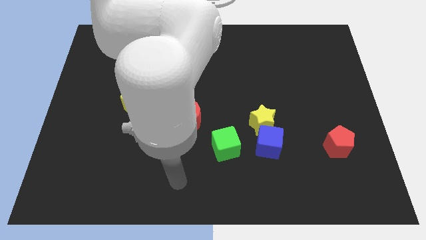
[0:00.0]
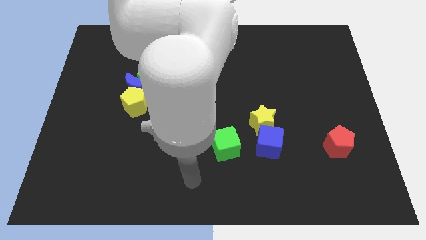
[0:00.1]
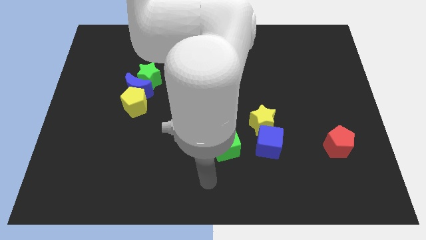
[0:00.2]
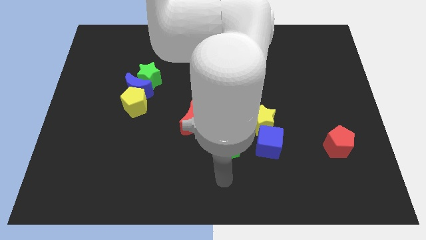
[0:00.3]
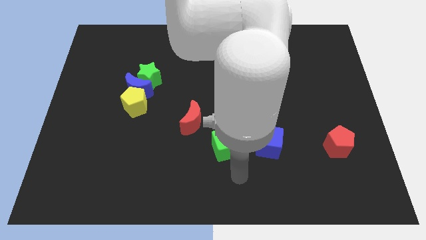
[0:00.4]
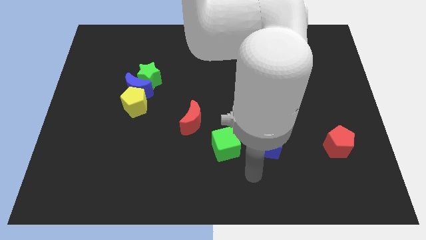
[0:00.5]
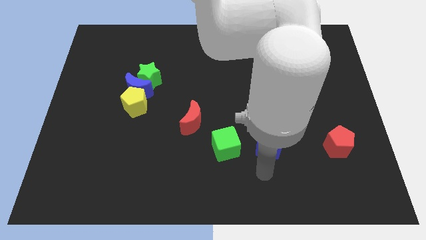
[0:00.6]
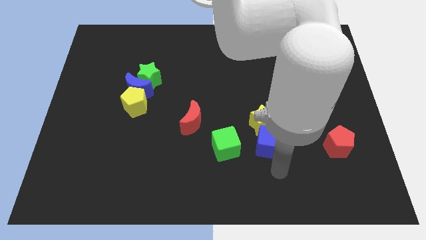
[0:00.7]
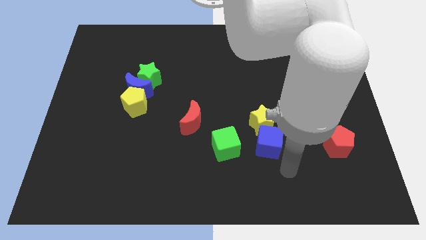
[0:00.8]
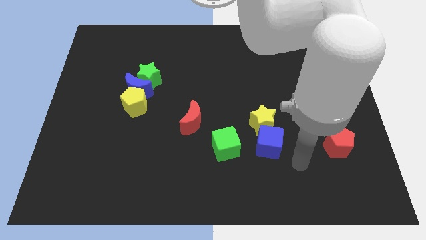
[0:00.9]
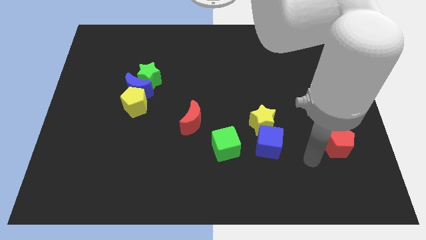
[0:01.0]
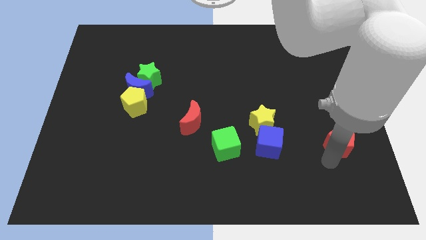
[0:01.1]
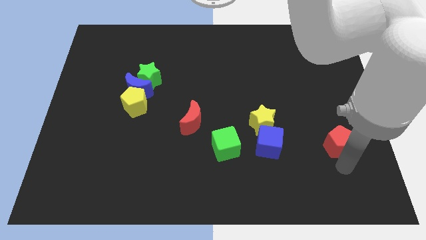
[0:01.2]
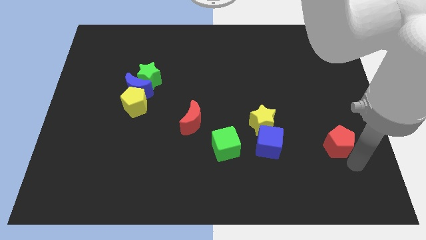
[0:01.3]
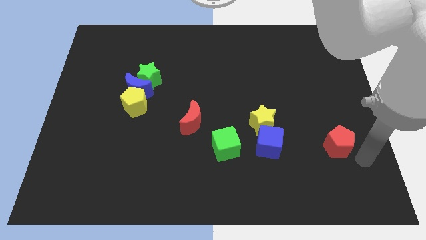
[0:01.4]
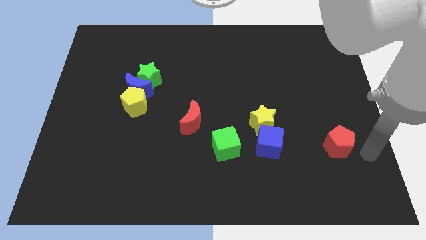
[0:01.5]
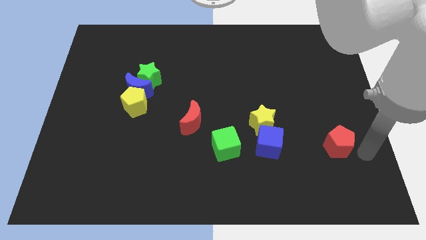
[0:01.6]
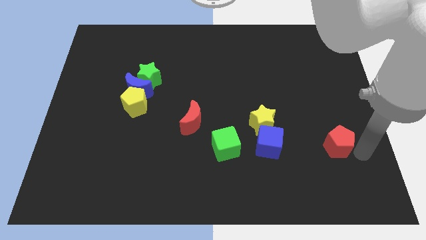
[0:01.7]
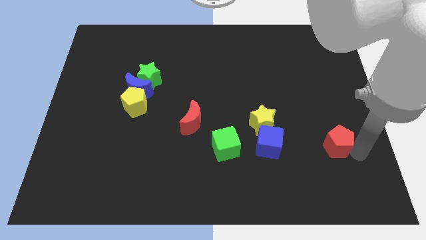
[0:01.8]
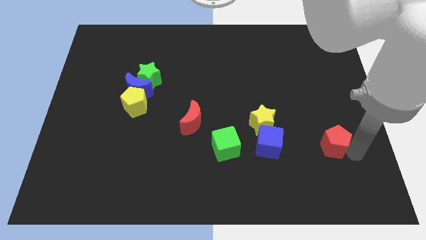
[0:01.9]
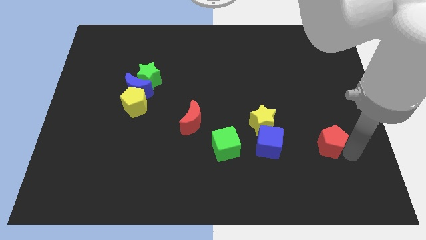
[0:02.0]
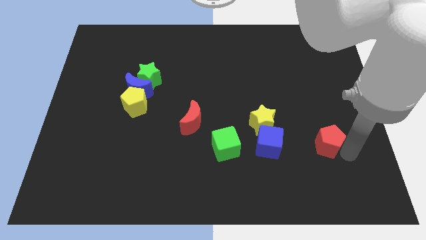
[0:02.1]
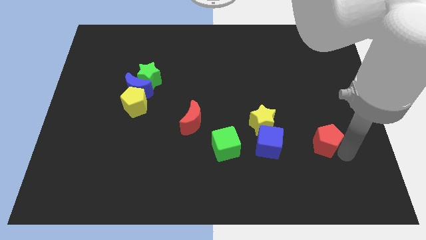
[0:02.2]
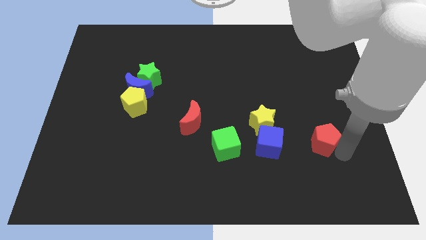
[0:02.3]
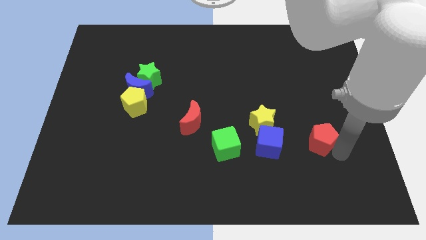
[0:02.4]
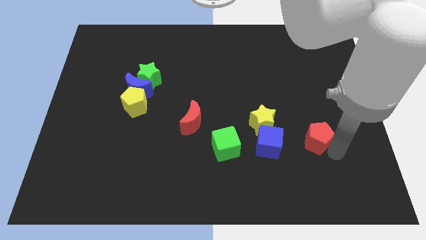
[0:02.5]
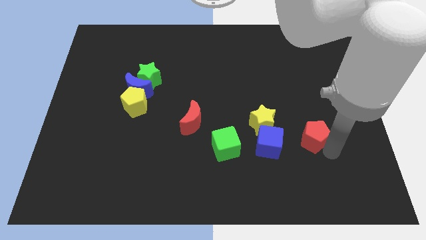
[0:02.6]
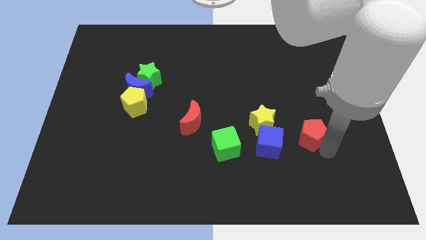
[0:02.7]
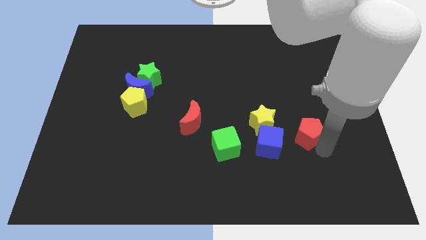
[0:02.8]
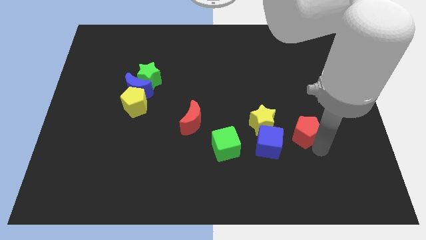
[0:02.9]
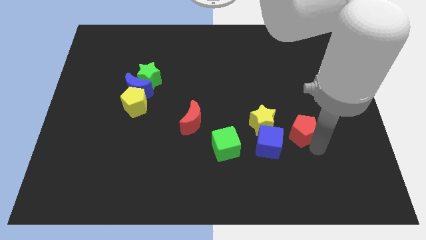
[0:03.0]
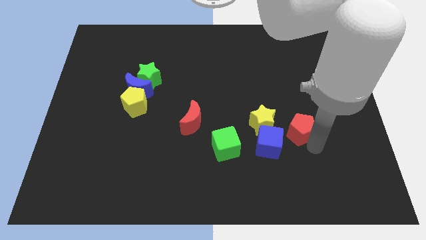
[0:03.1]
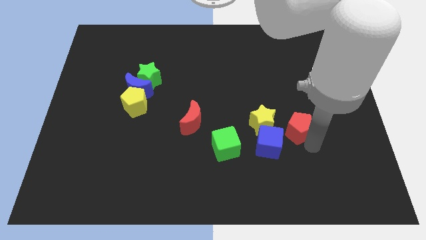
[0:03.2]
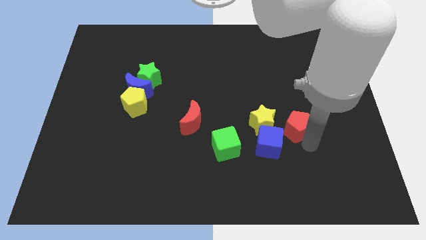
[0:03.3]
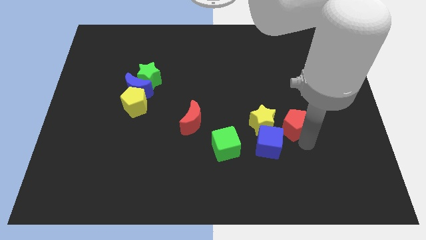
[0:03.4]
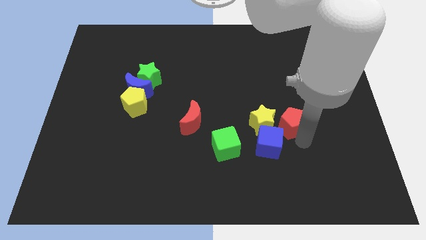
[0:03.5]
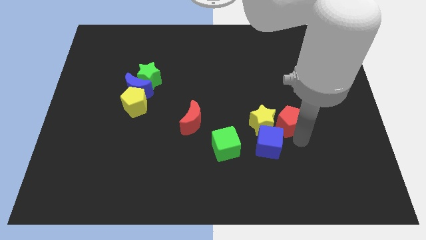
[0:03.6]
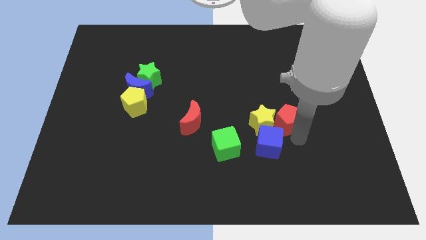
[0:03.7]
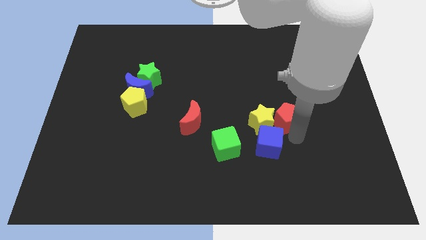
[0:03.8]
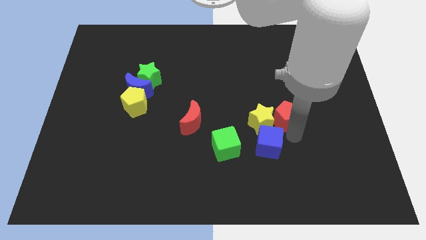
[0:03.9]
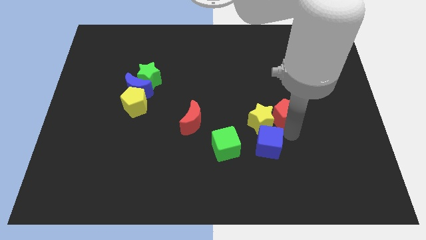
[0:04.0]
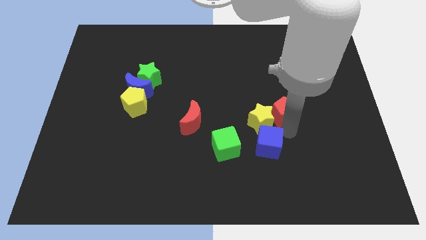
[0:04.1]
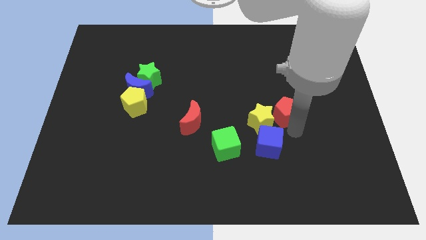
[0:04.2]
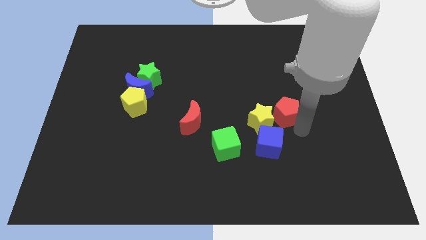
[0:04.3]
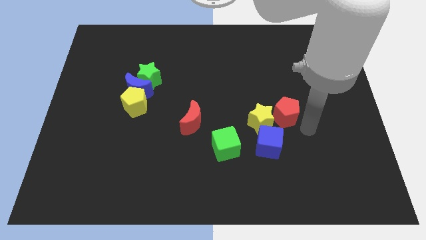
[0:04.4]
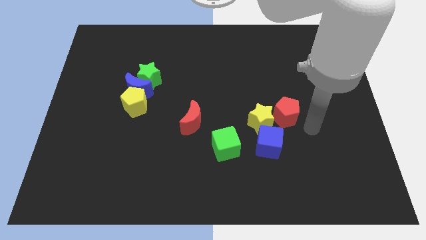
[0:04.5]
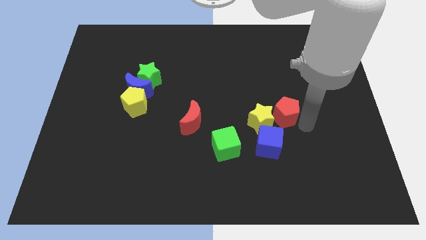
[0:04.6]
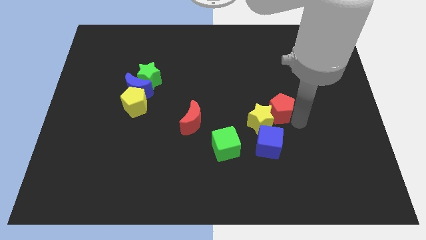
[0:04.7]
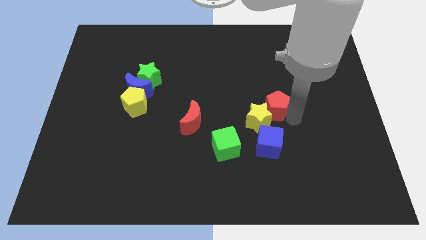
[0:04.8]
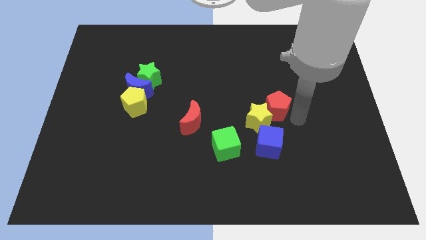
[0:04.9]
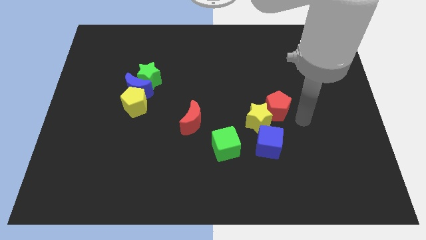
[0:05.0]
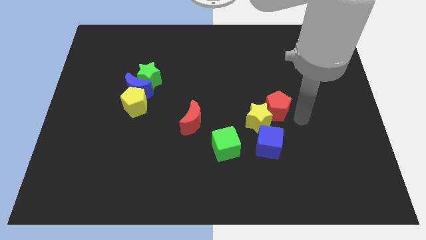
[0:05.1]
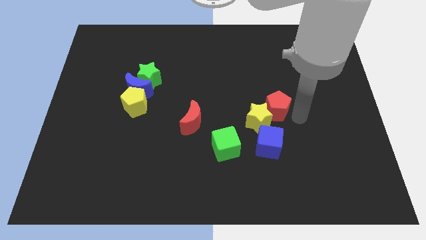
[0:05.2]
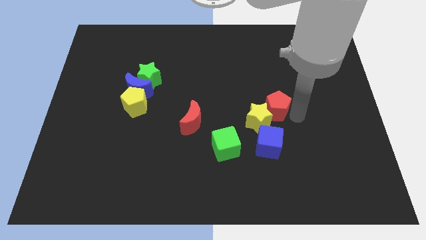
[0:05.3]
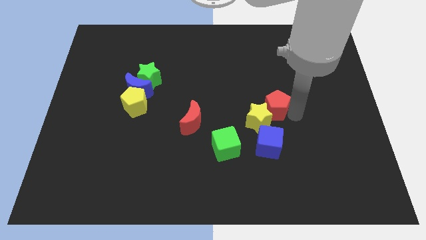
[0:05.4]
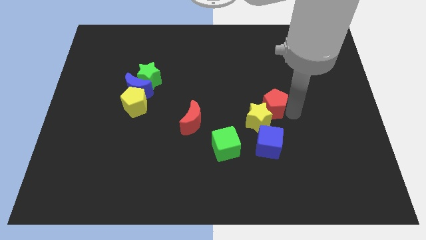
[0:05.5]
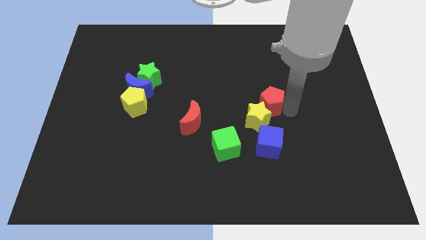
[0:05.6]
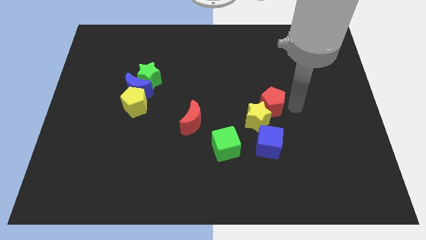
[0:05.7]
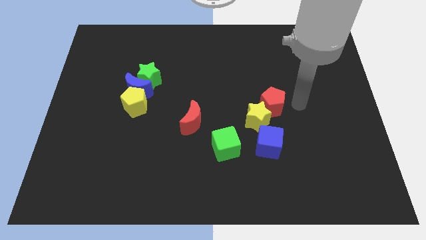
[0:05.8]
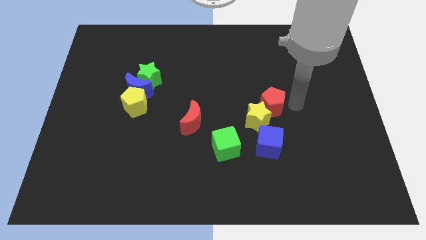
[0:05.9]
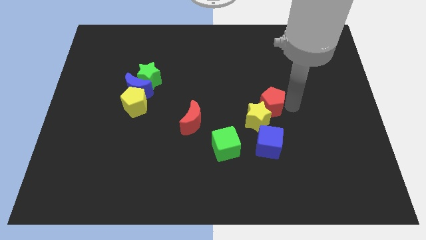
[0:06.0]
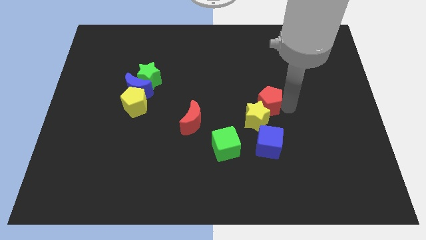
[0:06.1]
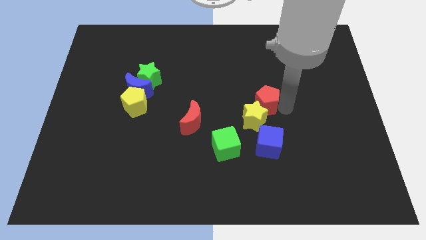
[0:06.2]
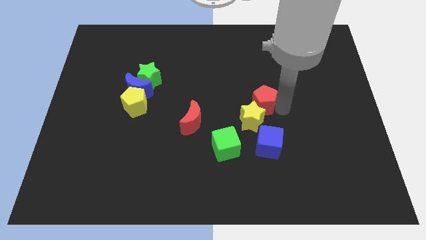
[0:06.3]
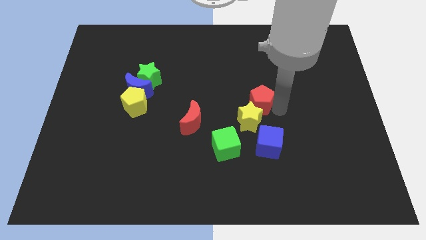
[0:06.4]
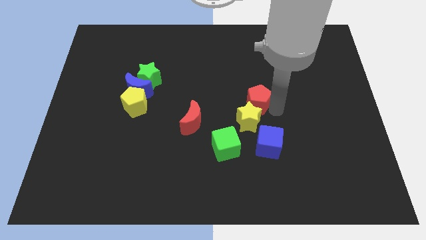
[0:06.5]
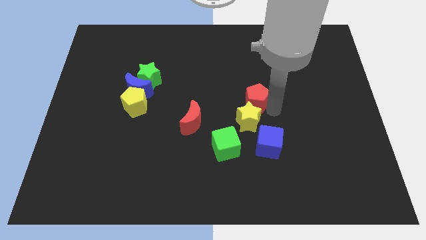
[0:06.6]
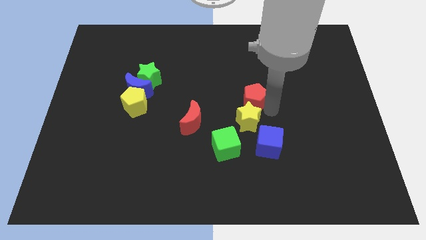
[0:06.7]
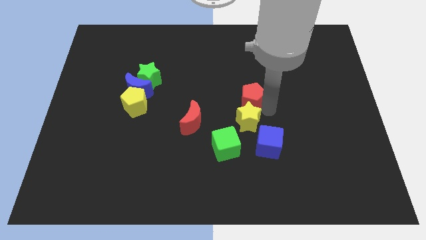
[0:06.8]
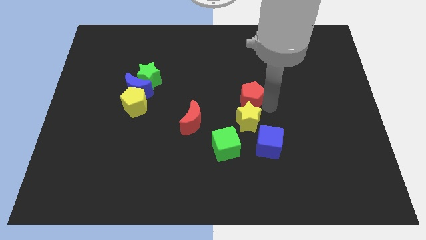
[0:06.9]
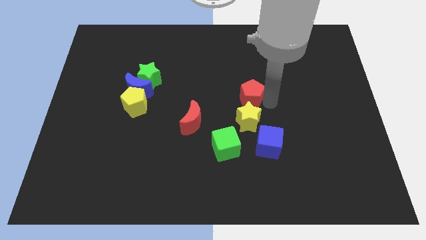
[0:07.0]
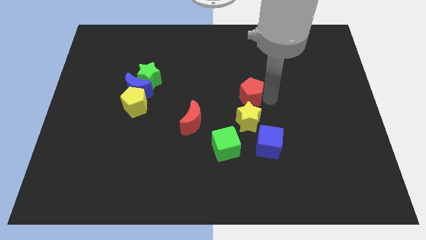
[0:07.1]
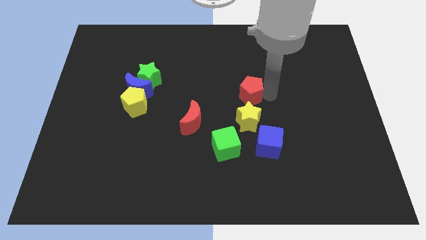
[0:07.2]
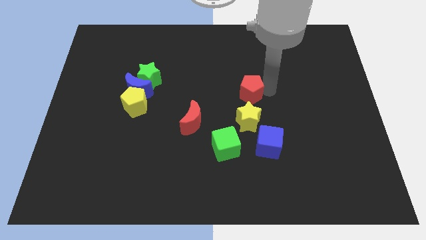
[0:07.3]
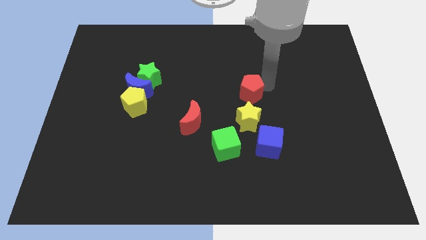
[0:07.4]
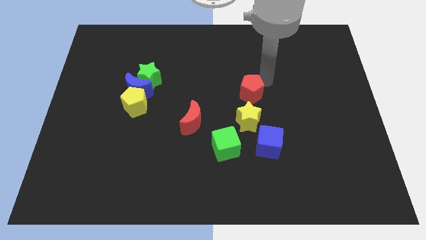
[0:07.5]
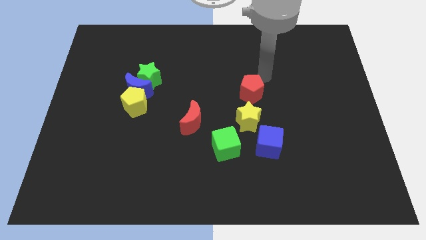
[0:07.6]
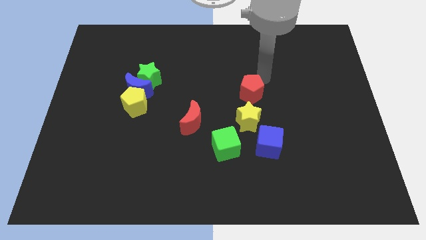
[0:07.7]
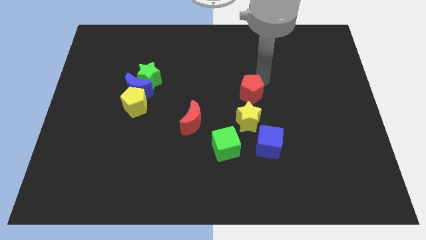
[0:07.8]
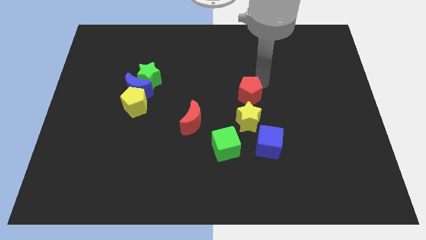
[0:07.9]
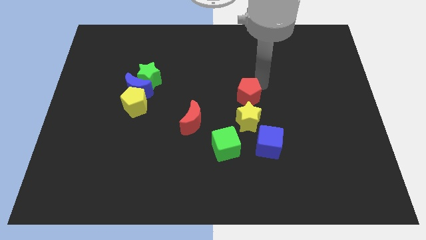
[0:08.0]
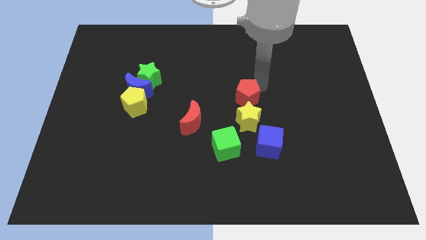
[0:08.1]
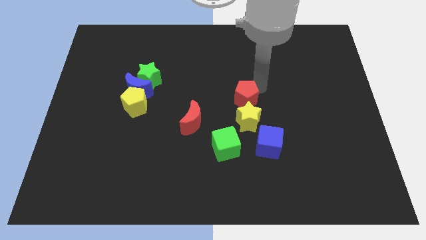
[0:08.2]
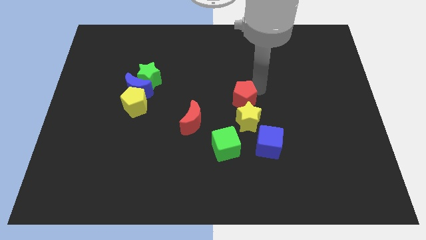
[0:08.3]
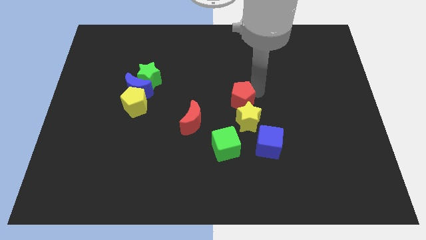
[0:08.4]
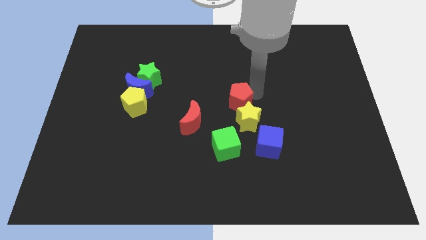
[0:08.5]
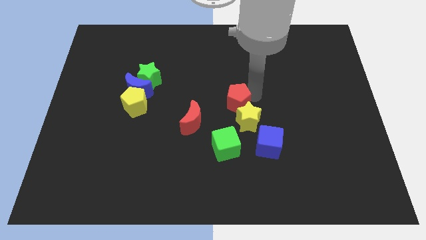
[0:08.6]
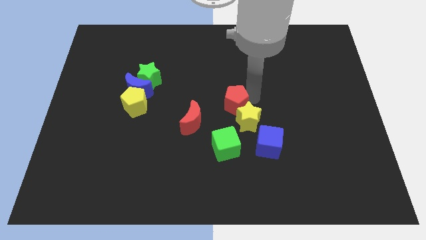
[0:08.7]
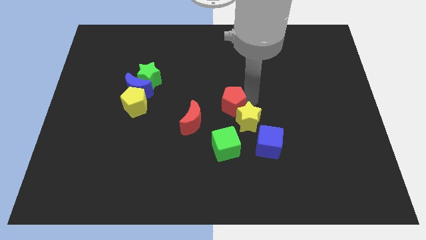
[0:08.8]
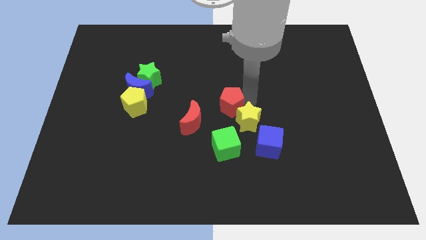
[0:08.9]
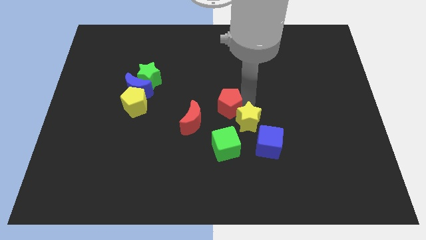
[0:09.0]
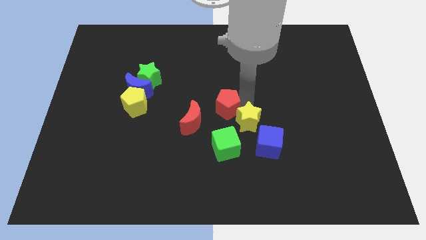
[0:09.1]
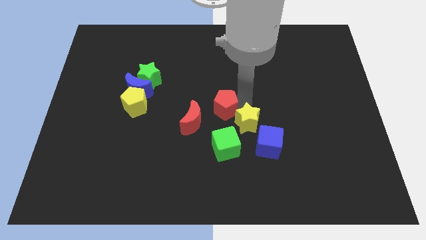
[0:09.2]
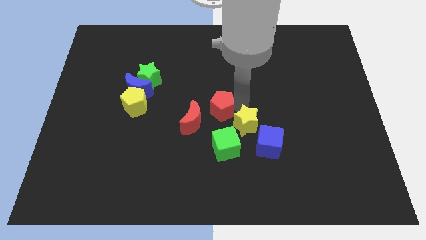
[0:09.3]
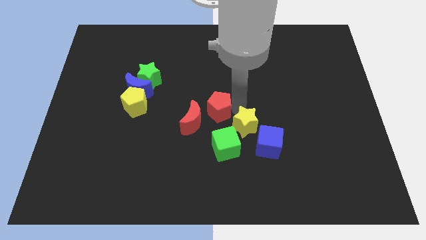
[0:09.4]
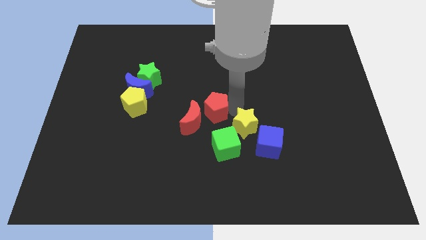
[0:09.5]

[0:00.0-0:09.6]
slide the red pentagon to the red moon
